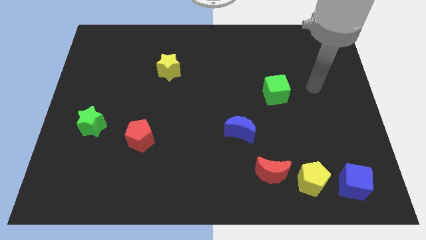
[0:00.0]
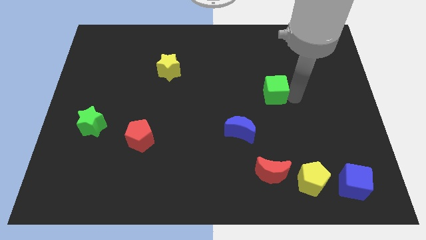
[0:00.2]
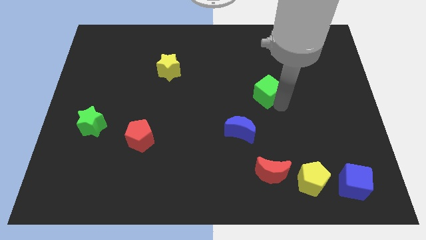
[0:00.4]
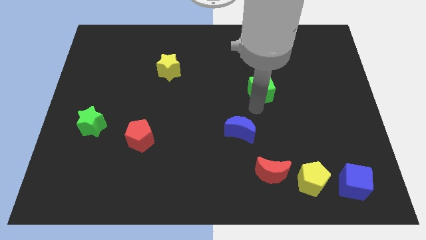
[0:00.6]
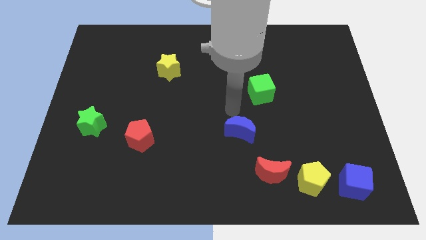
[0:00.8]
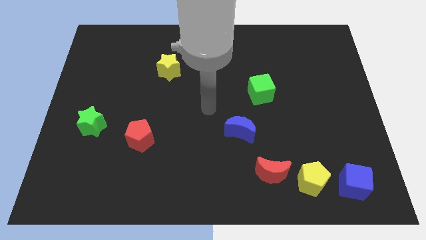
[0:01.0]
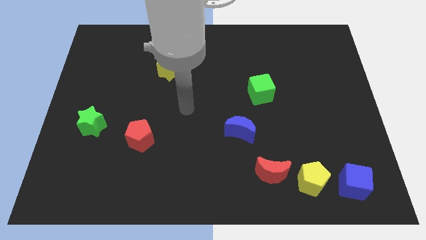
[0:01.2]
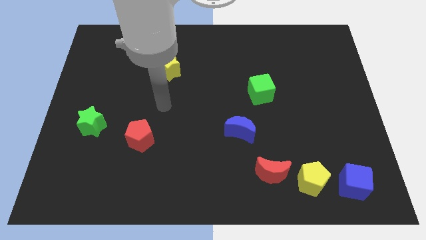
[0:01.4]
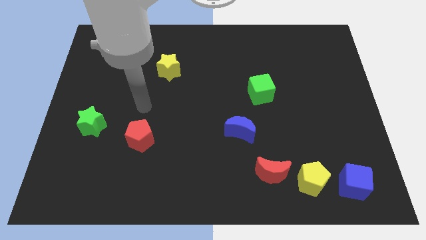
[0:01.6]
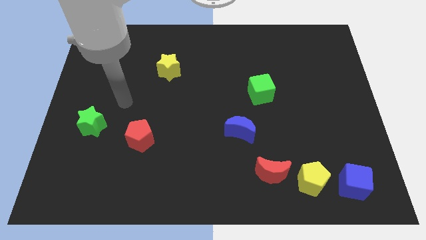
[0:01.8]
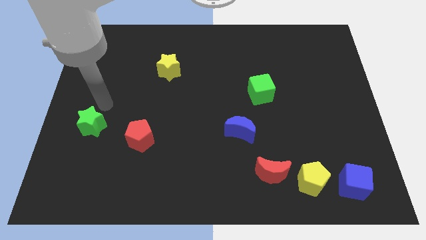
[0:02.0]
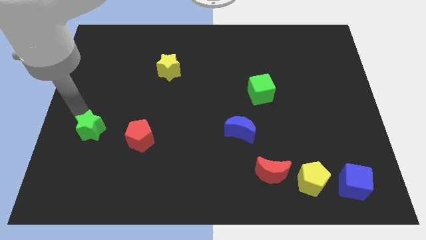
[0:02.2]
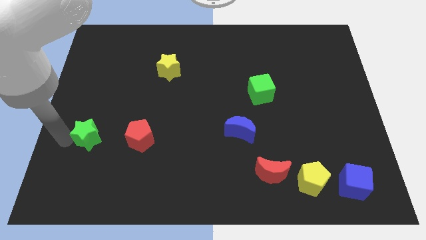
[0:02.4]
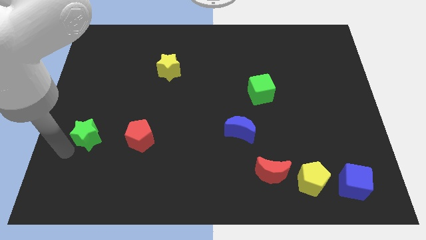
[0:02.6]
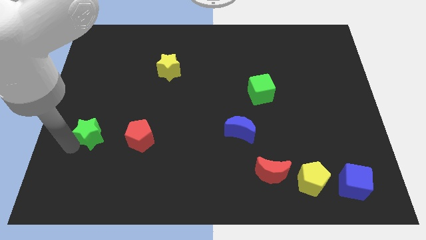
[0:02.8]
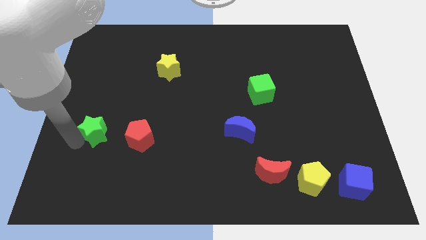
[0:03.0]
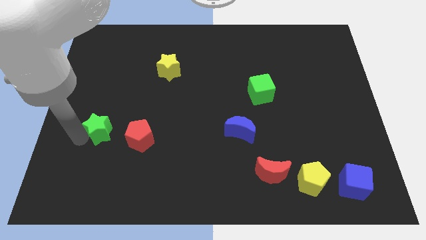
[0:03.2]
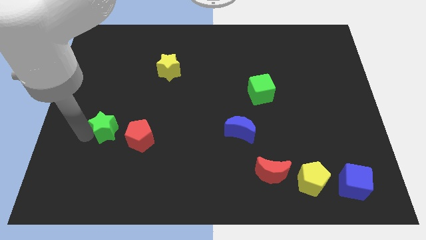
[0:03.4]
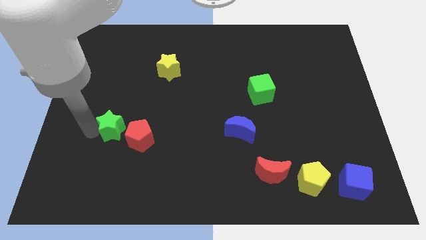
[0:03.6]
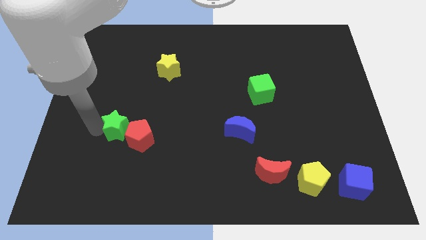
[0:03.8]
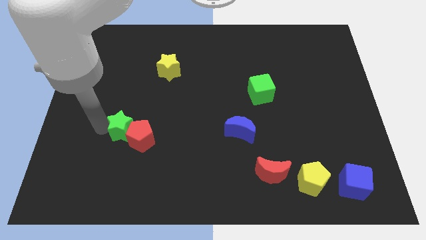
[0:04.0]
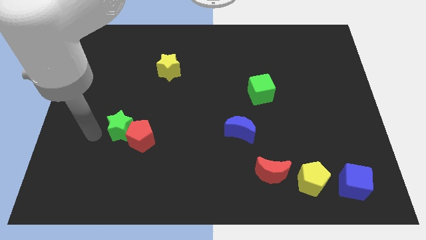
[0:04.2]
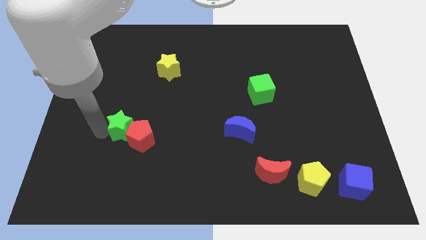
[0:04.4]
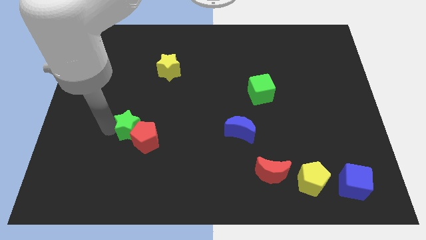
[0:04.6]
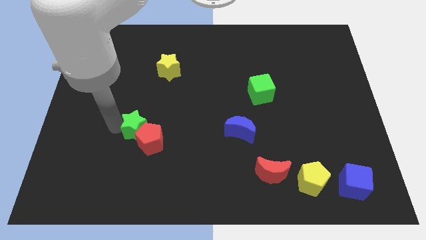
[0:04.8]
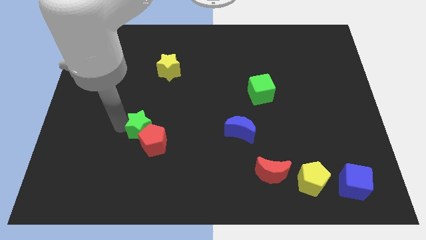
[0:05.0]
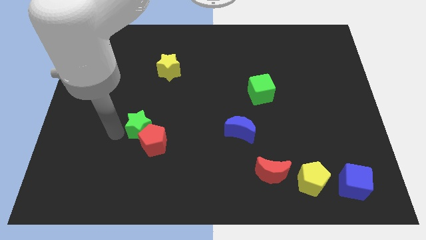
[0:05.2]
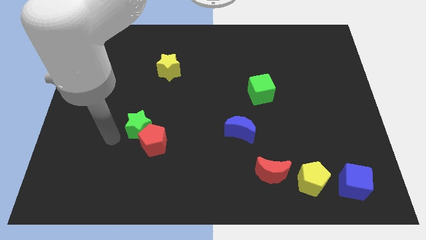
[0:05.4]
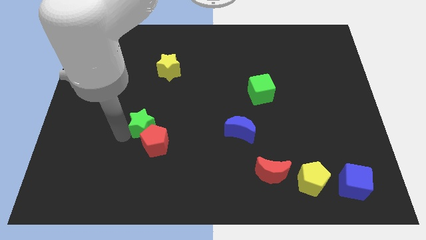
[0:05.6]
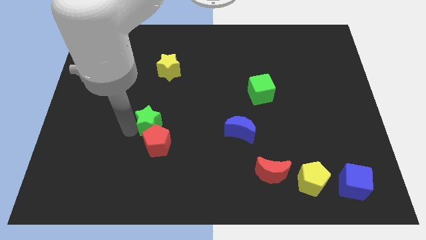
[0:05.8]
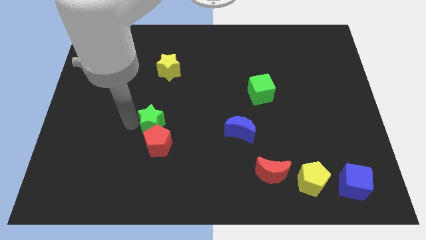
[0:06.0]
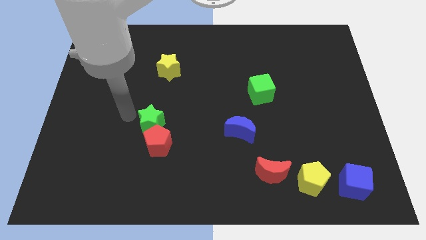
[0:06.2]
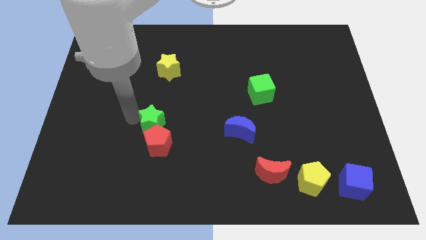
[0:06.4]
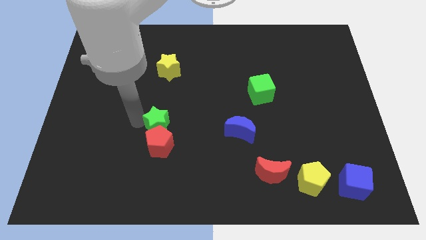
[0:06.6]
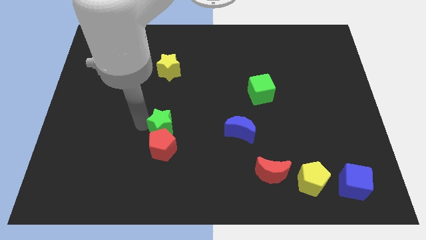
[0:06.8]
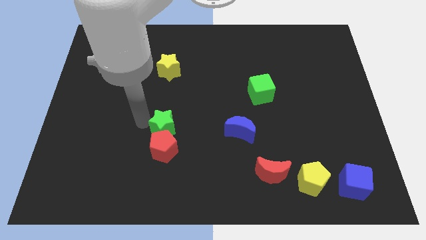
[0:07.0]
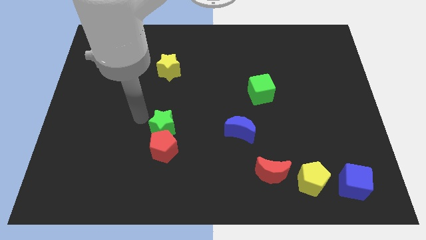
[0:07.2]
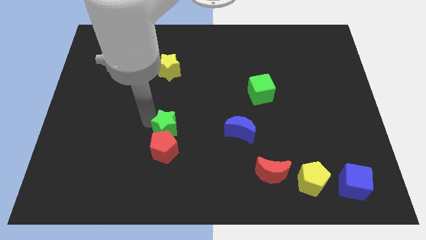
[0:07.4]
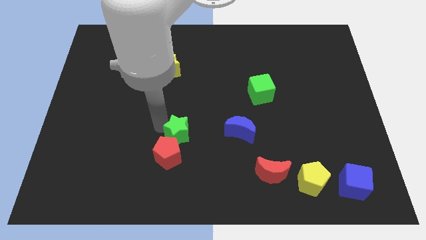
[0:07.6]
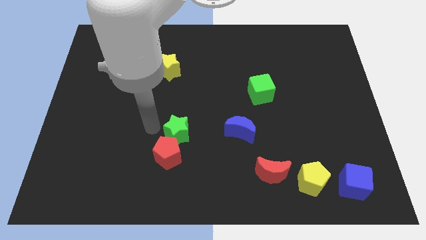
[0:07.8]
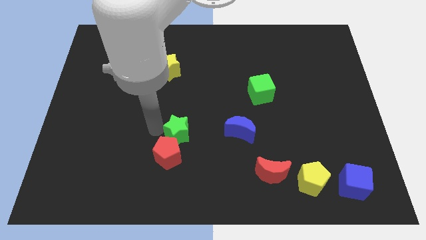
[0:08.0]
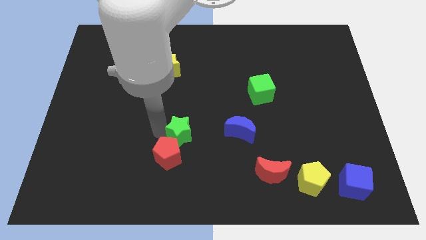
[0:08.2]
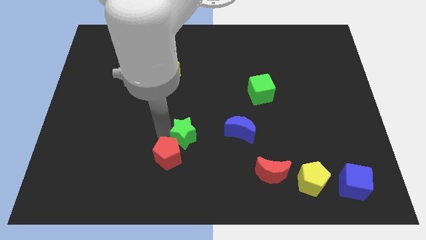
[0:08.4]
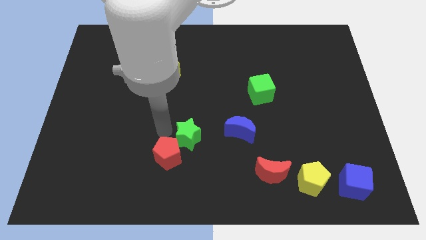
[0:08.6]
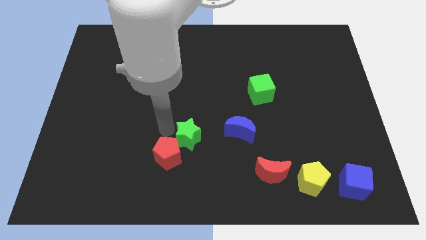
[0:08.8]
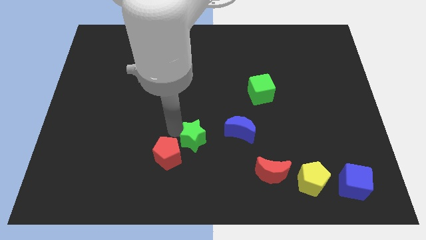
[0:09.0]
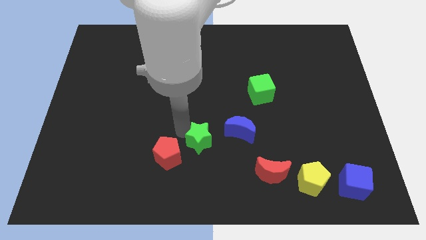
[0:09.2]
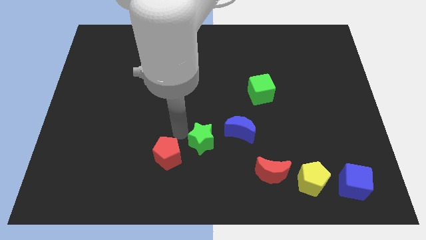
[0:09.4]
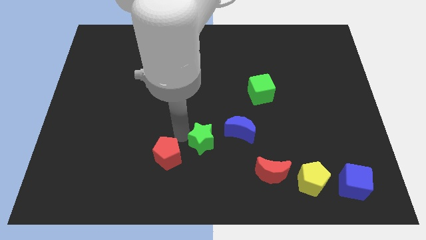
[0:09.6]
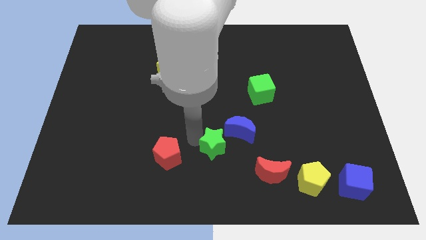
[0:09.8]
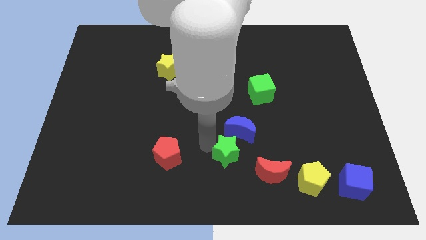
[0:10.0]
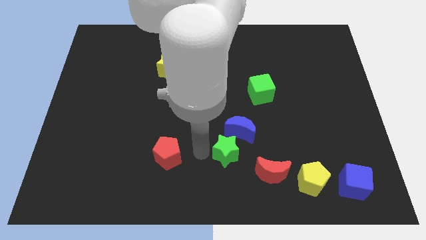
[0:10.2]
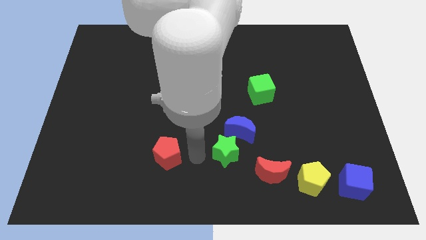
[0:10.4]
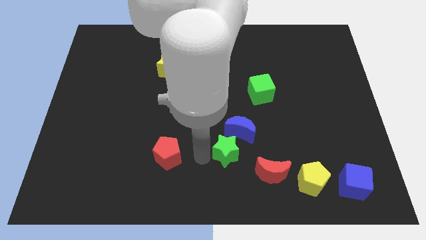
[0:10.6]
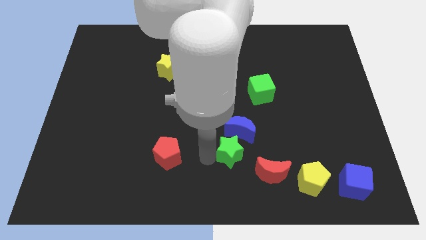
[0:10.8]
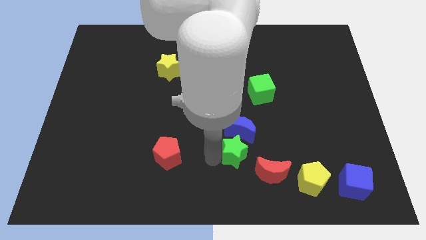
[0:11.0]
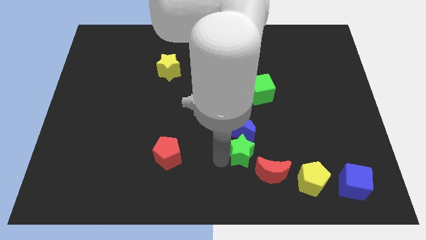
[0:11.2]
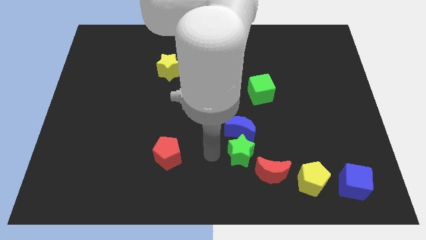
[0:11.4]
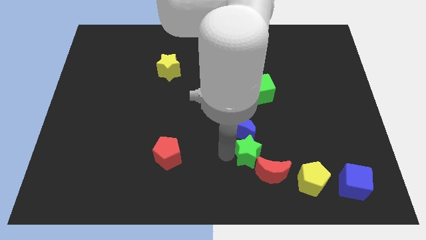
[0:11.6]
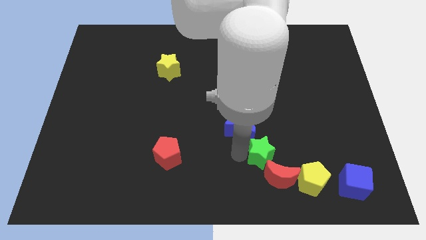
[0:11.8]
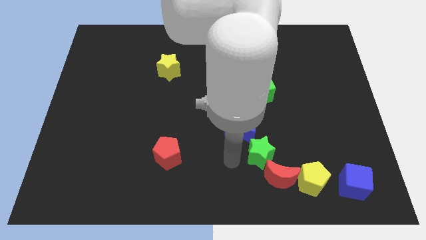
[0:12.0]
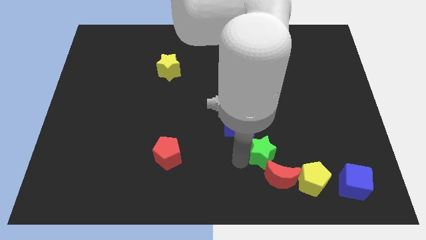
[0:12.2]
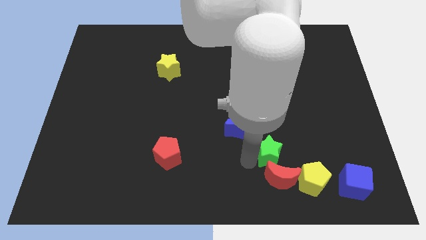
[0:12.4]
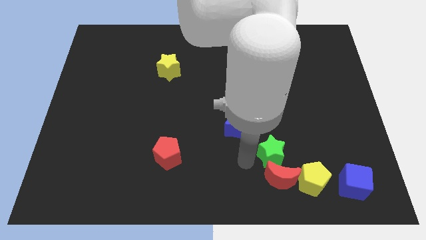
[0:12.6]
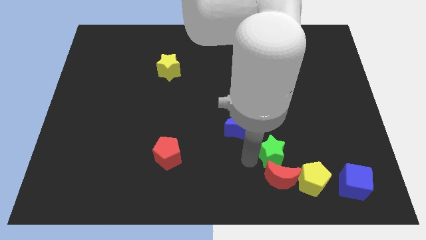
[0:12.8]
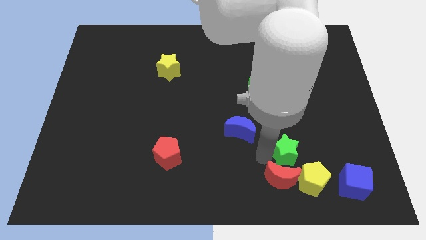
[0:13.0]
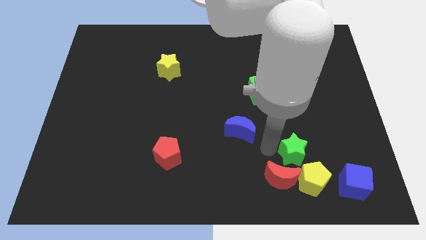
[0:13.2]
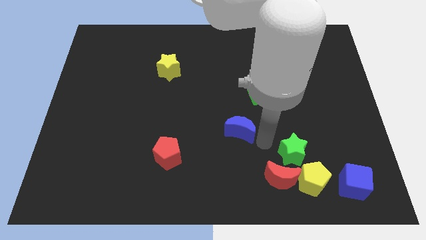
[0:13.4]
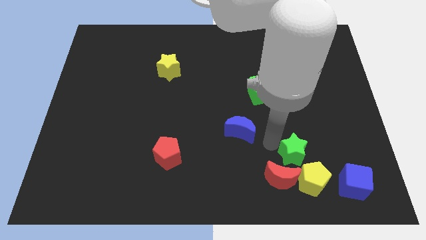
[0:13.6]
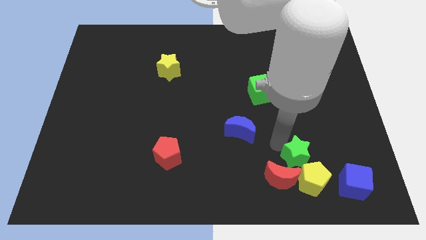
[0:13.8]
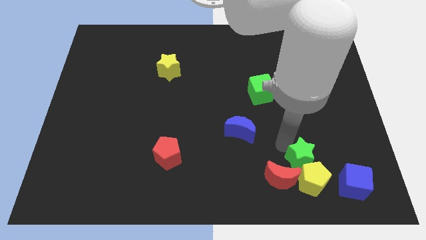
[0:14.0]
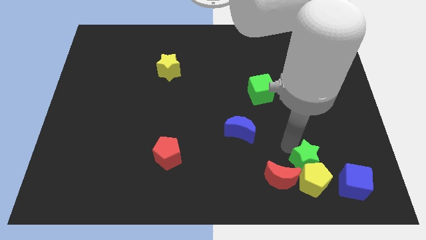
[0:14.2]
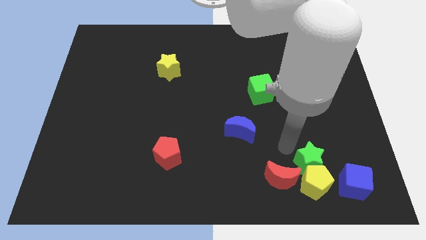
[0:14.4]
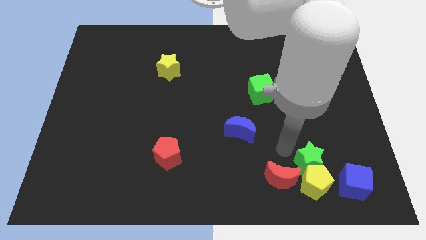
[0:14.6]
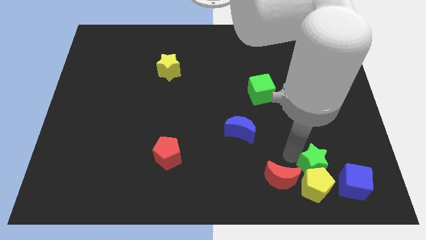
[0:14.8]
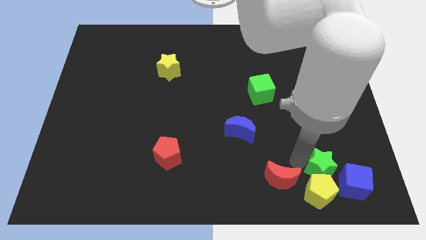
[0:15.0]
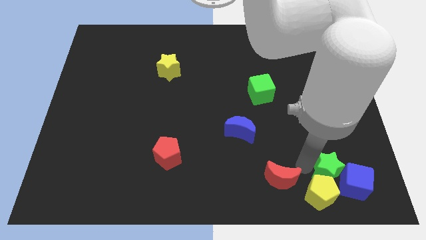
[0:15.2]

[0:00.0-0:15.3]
slide the green star close to the blue cube
